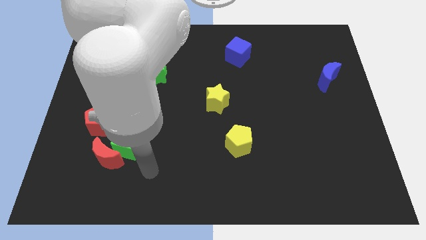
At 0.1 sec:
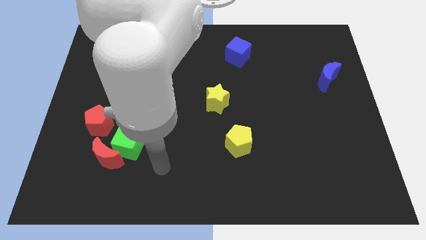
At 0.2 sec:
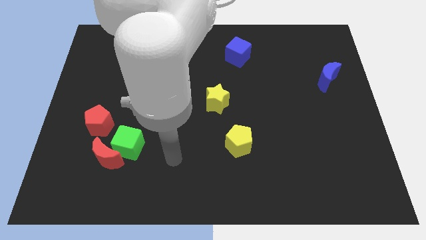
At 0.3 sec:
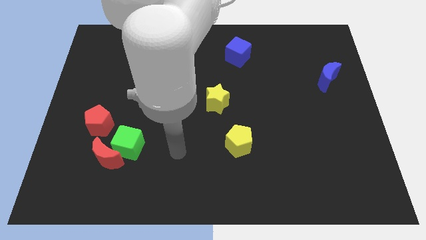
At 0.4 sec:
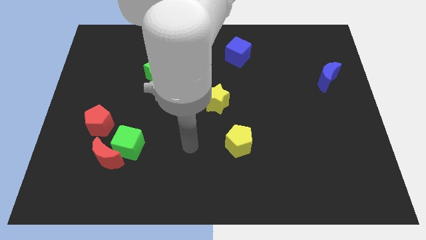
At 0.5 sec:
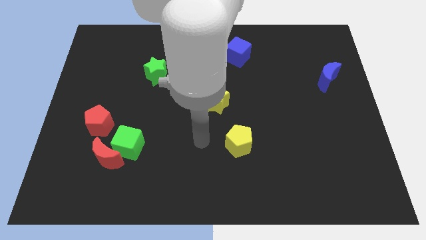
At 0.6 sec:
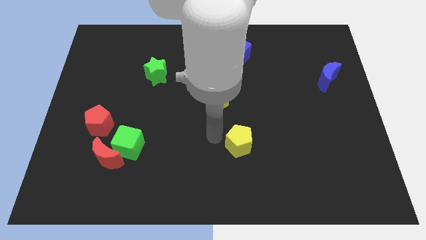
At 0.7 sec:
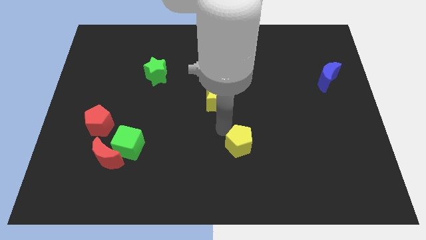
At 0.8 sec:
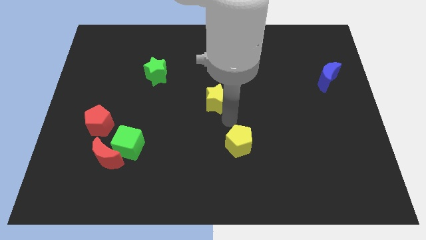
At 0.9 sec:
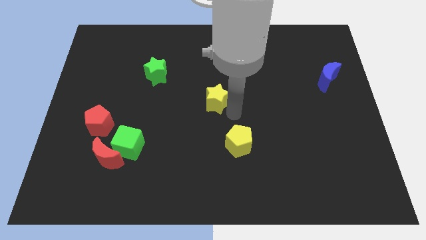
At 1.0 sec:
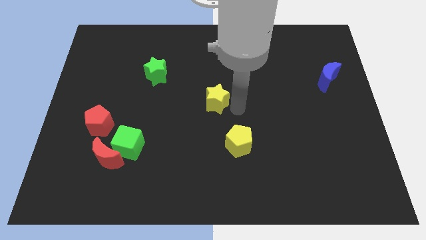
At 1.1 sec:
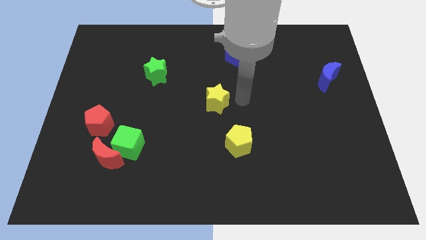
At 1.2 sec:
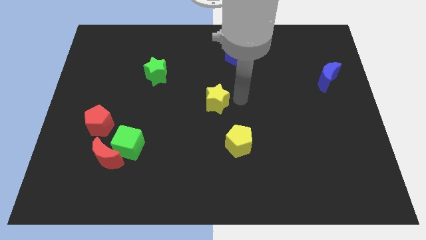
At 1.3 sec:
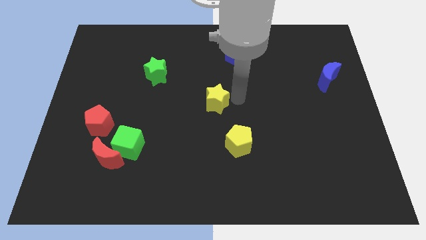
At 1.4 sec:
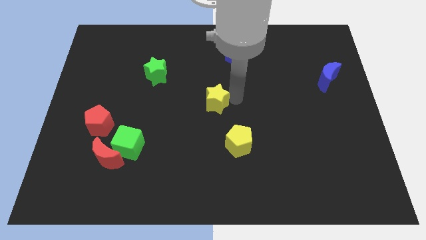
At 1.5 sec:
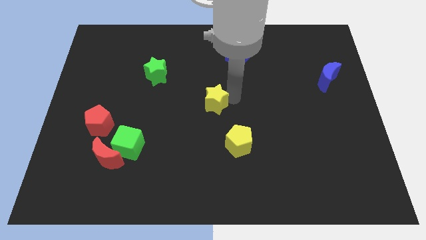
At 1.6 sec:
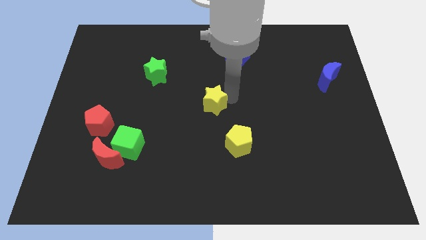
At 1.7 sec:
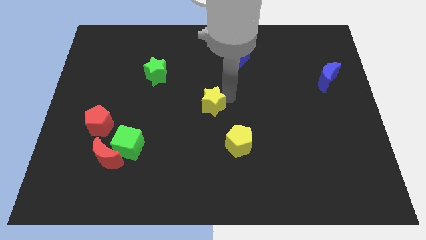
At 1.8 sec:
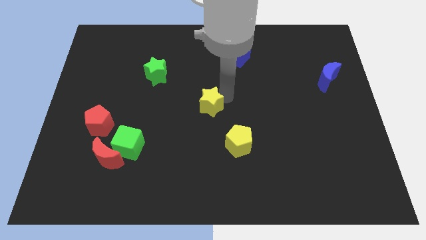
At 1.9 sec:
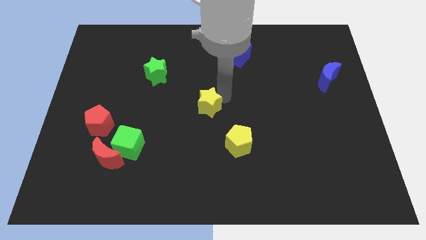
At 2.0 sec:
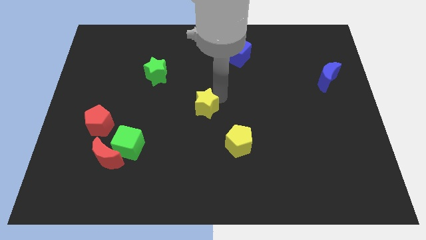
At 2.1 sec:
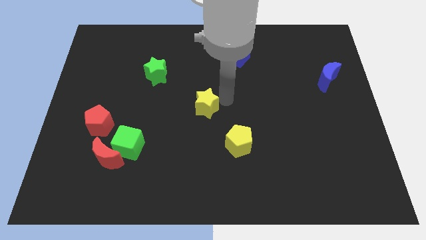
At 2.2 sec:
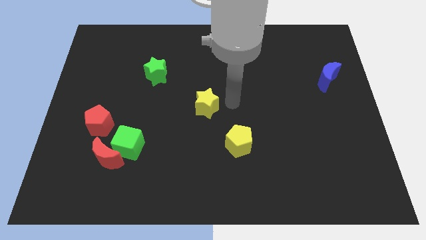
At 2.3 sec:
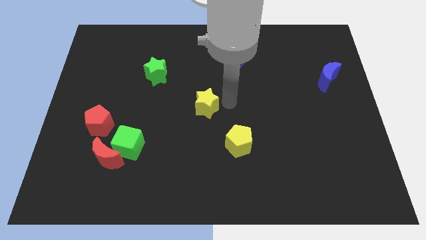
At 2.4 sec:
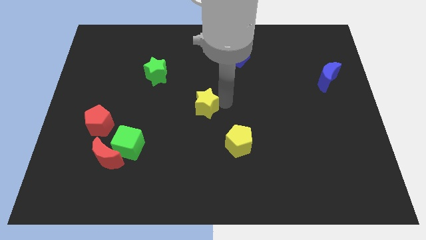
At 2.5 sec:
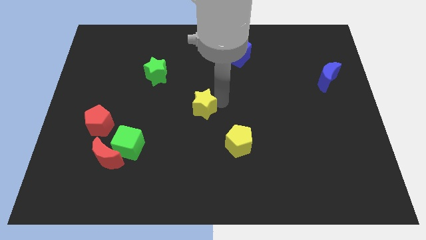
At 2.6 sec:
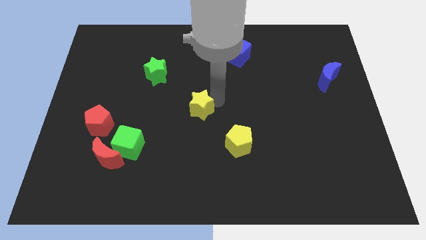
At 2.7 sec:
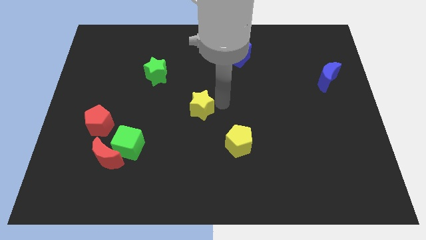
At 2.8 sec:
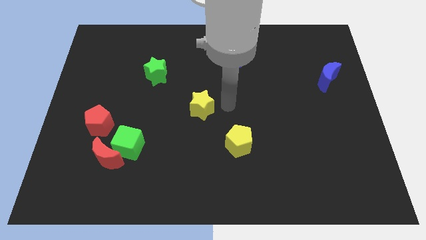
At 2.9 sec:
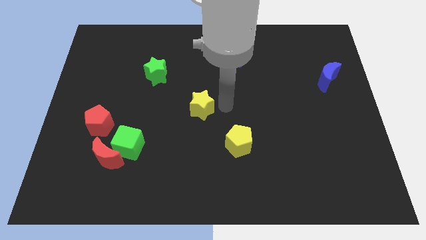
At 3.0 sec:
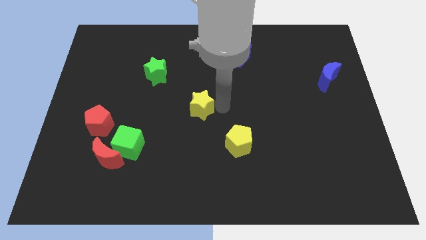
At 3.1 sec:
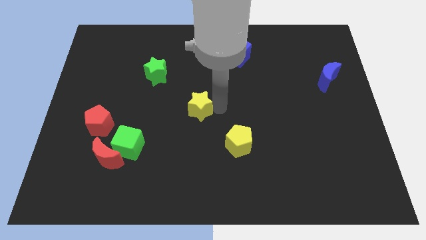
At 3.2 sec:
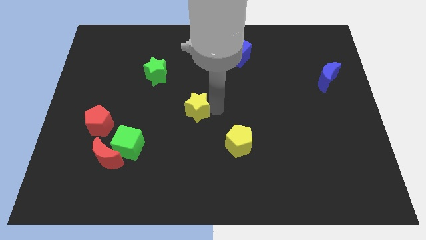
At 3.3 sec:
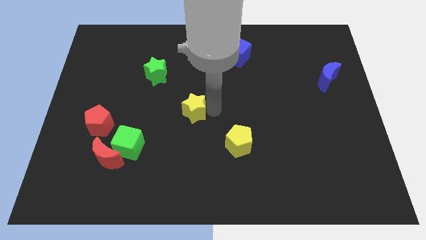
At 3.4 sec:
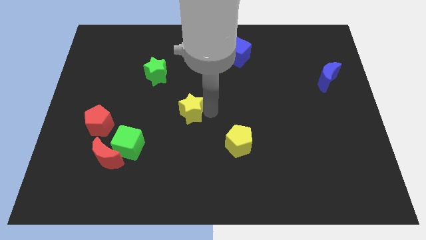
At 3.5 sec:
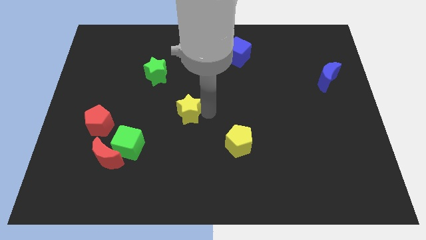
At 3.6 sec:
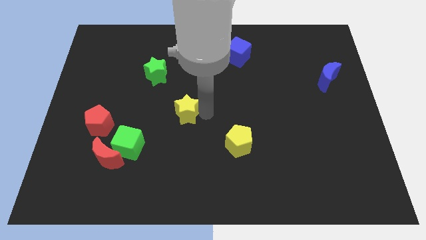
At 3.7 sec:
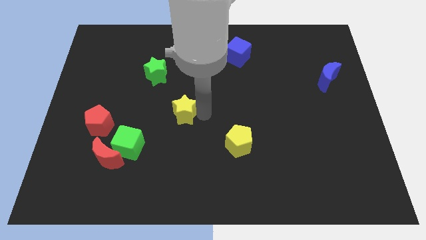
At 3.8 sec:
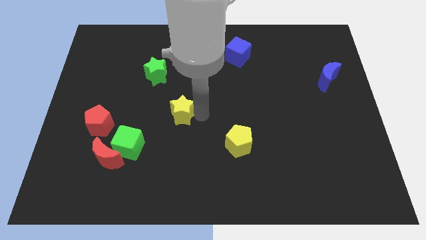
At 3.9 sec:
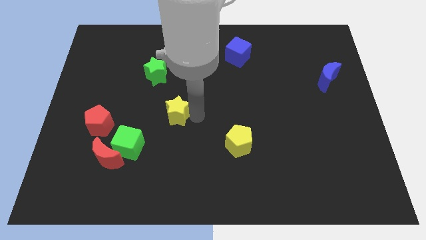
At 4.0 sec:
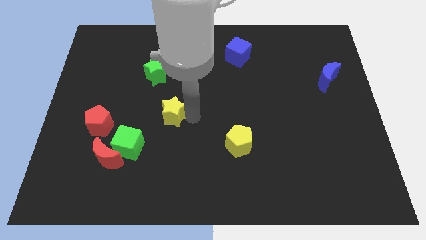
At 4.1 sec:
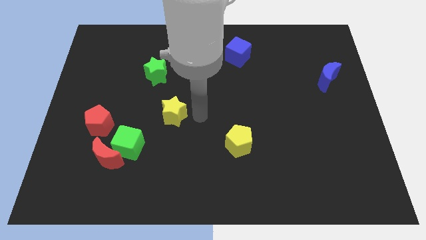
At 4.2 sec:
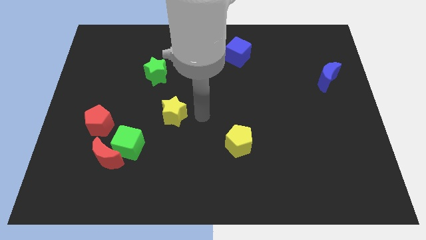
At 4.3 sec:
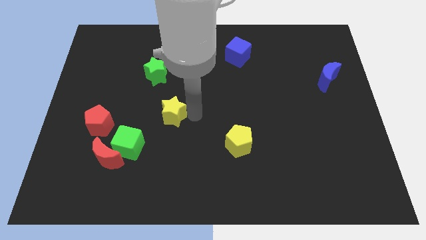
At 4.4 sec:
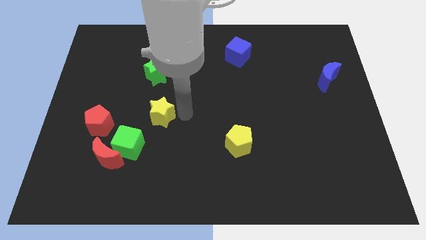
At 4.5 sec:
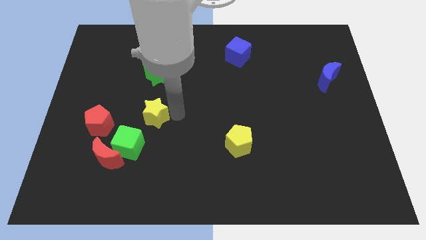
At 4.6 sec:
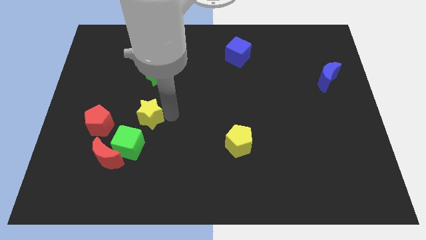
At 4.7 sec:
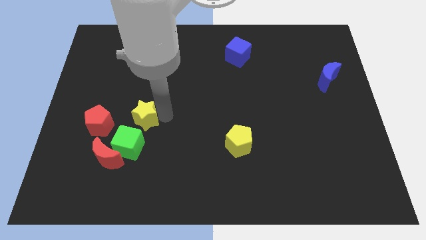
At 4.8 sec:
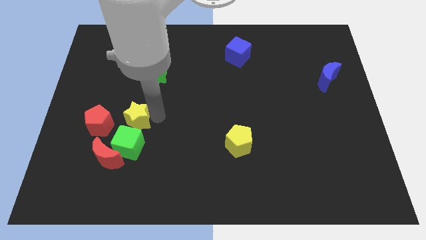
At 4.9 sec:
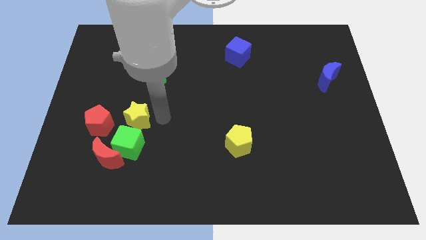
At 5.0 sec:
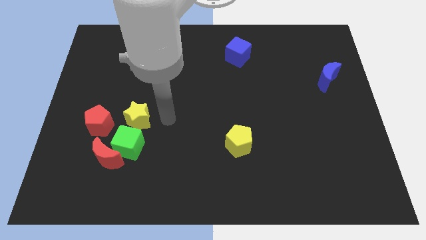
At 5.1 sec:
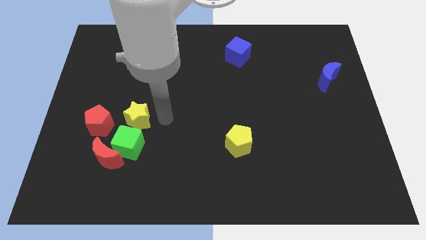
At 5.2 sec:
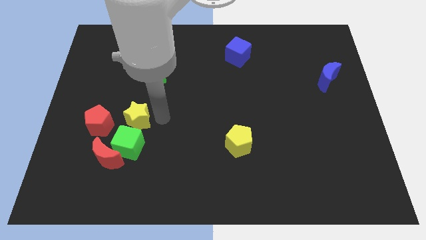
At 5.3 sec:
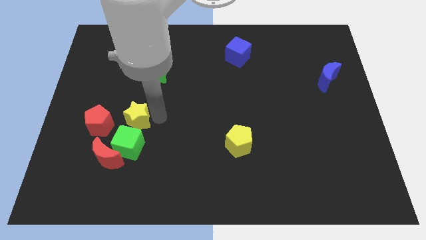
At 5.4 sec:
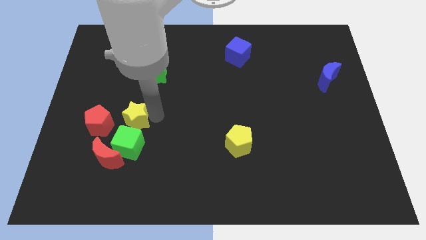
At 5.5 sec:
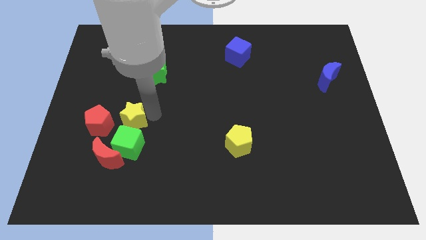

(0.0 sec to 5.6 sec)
slide the yellow star to the top of the red moon
